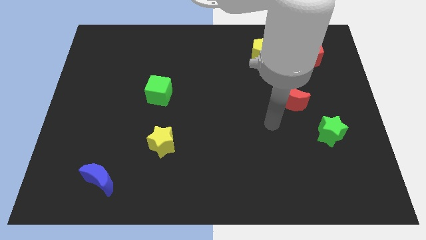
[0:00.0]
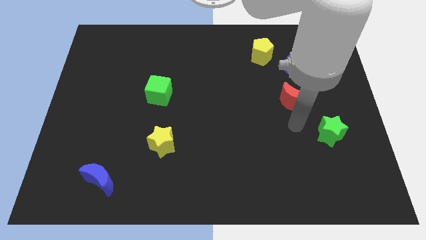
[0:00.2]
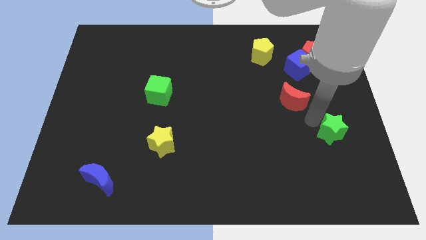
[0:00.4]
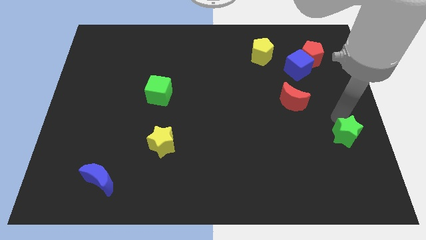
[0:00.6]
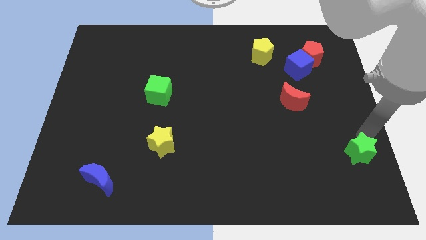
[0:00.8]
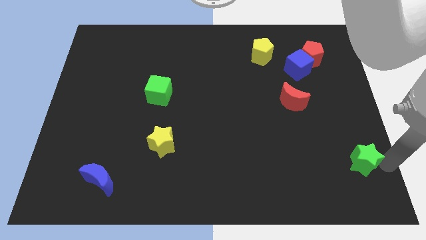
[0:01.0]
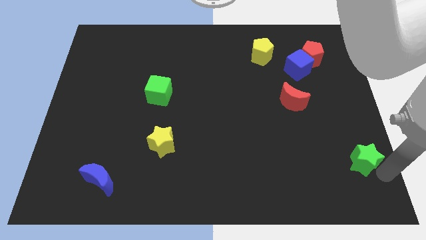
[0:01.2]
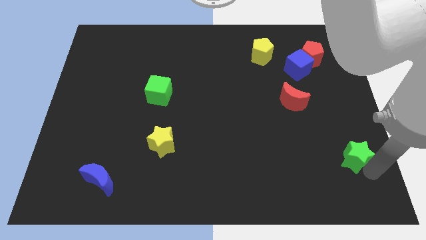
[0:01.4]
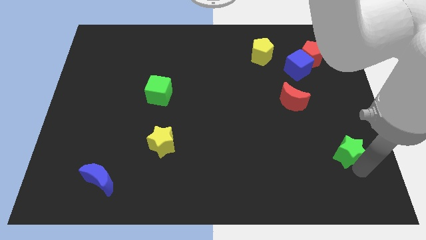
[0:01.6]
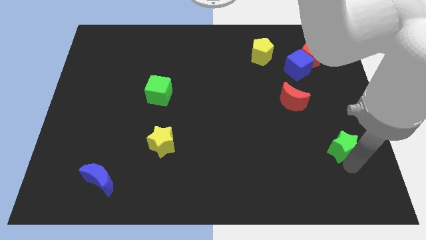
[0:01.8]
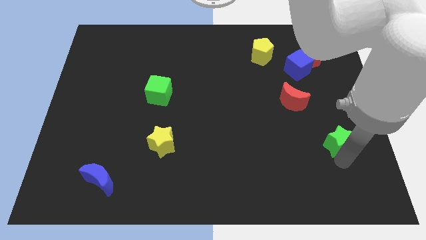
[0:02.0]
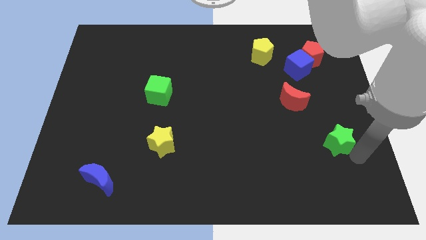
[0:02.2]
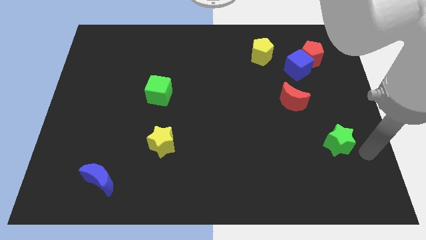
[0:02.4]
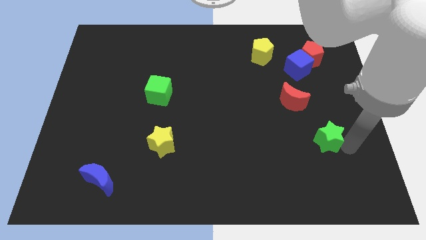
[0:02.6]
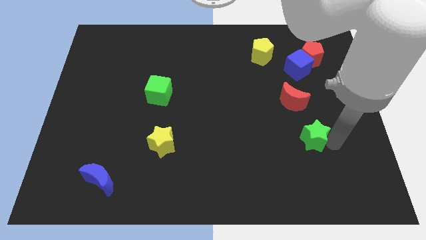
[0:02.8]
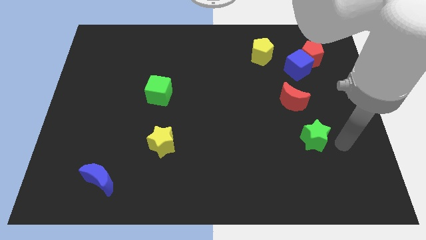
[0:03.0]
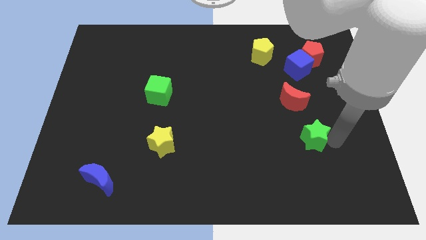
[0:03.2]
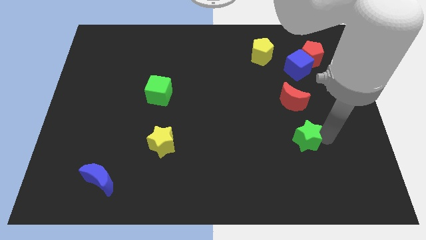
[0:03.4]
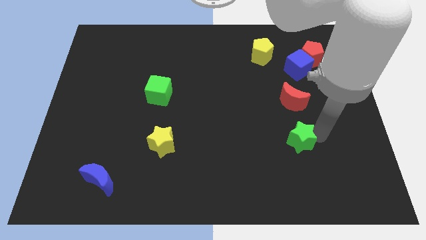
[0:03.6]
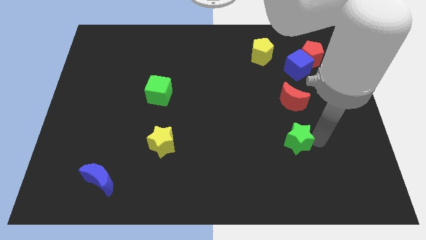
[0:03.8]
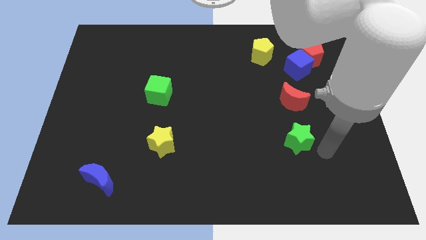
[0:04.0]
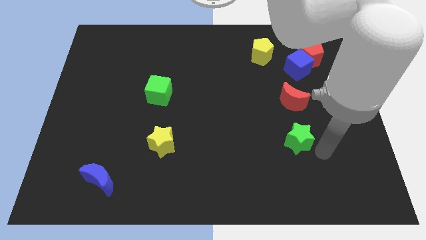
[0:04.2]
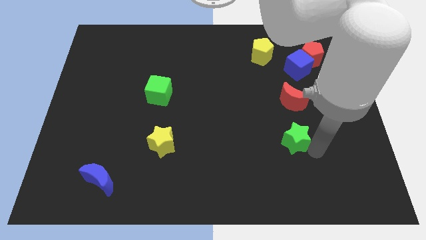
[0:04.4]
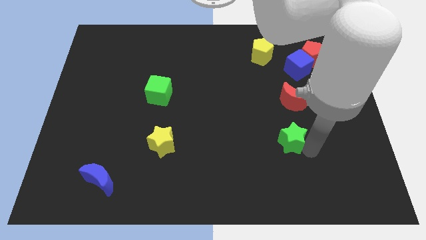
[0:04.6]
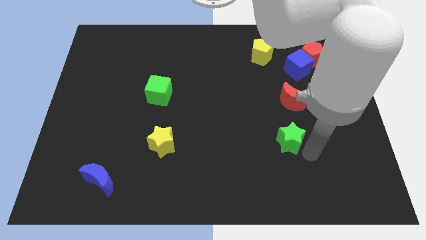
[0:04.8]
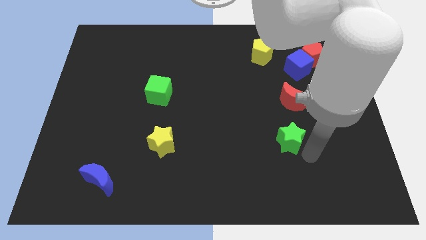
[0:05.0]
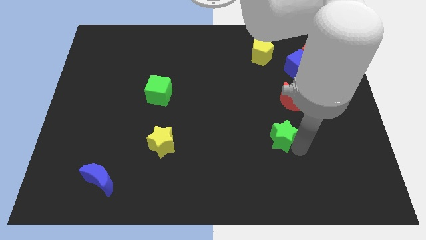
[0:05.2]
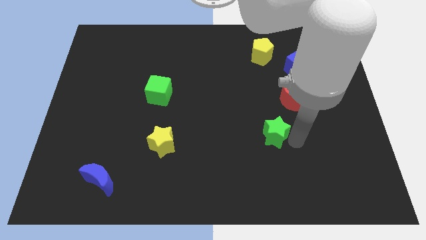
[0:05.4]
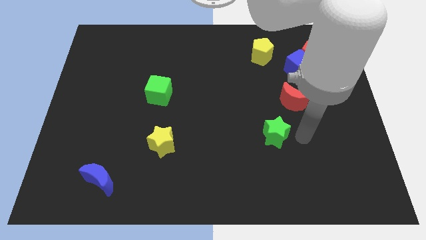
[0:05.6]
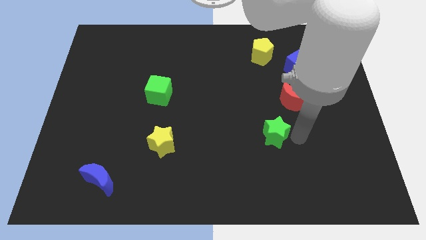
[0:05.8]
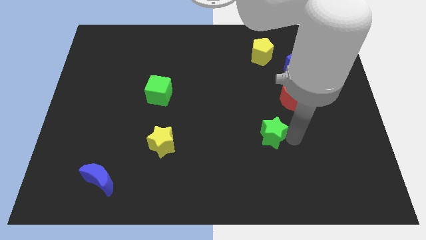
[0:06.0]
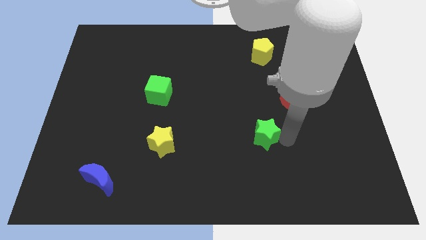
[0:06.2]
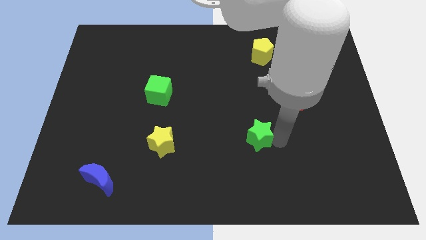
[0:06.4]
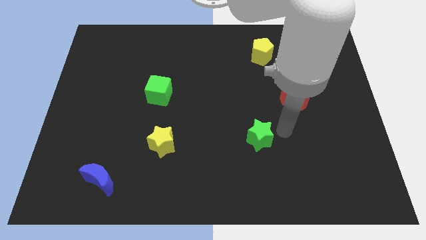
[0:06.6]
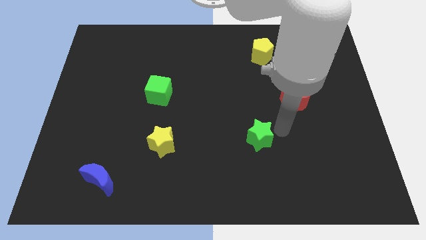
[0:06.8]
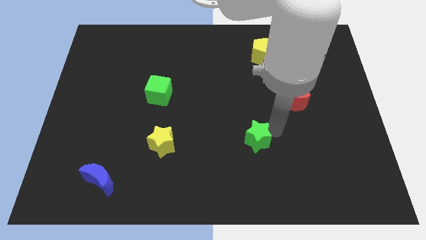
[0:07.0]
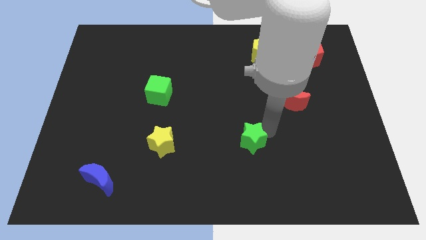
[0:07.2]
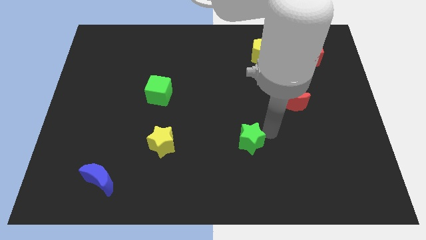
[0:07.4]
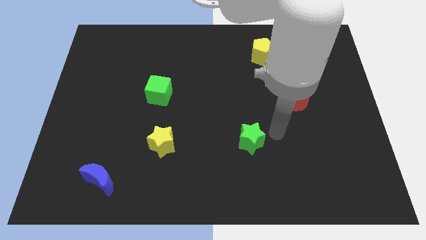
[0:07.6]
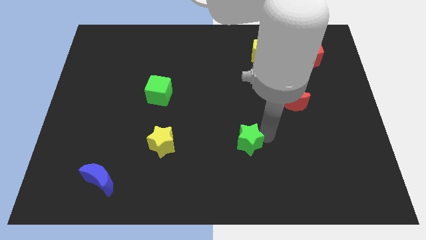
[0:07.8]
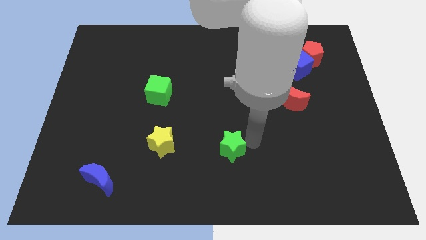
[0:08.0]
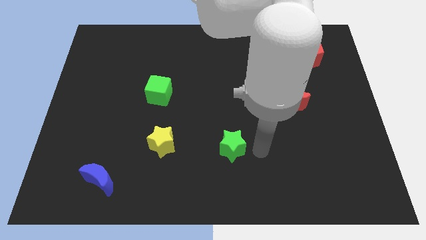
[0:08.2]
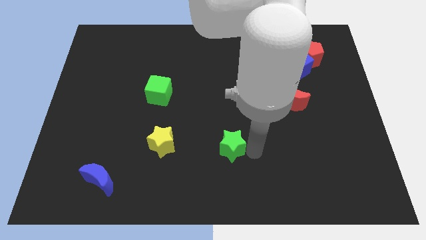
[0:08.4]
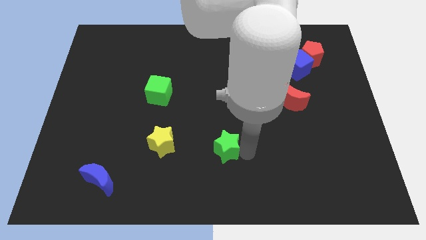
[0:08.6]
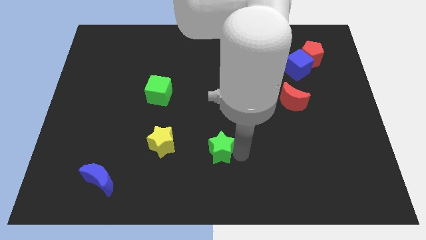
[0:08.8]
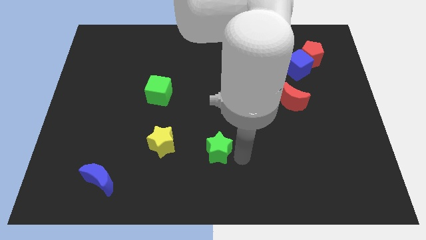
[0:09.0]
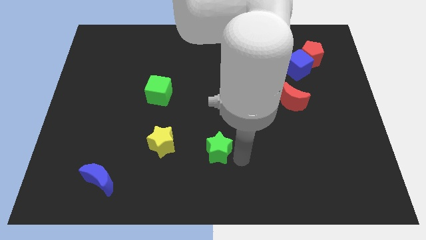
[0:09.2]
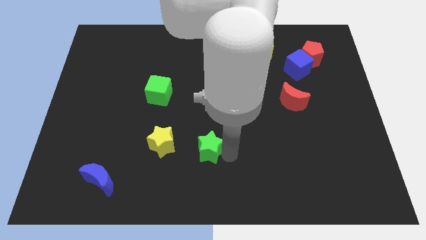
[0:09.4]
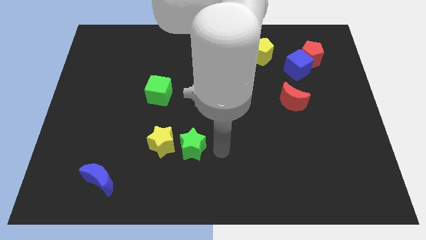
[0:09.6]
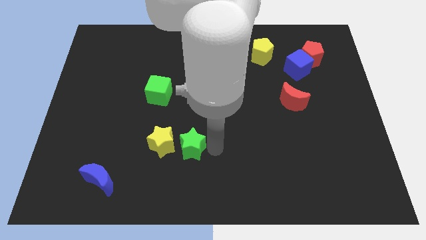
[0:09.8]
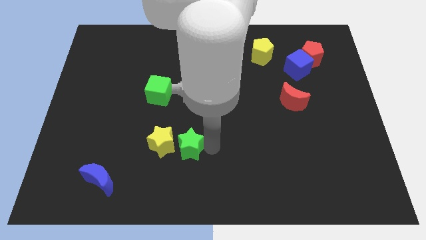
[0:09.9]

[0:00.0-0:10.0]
move the green star next to the yellow star

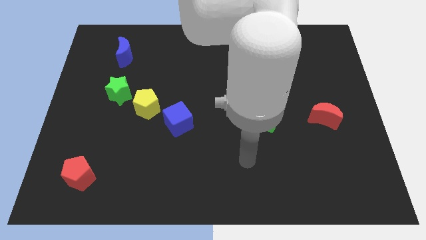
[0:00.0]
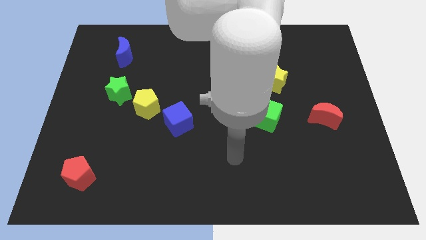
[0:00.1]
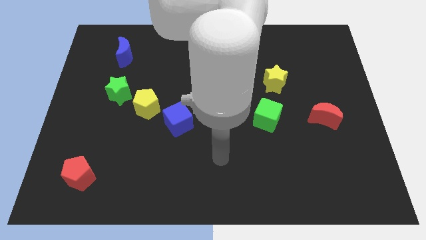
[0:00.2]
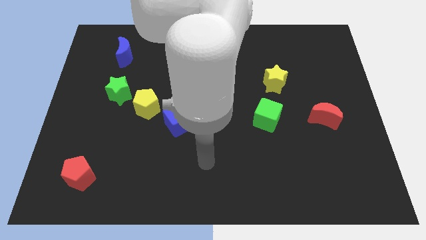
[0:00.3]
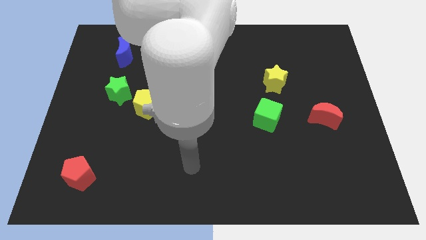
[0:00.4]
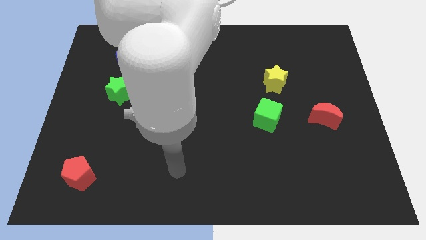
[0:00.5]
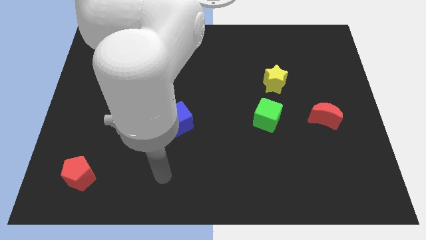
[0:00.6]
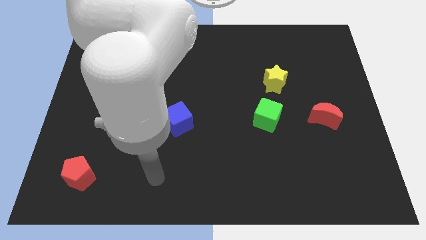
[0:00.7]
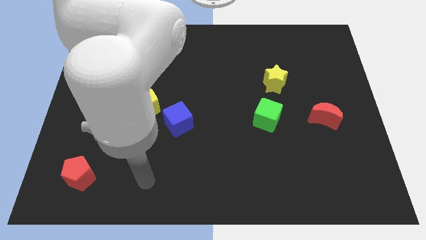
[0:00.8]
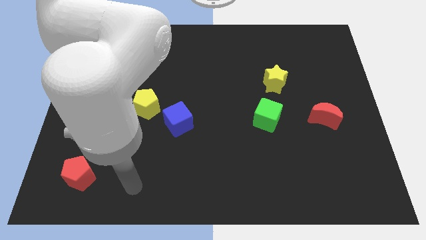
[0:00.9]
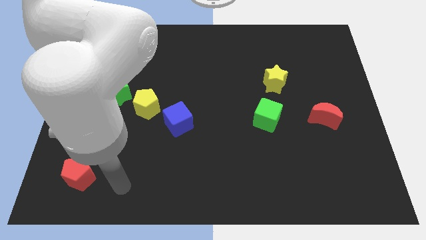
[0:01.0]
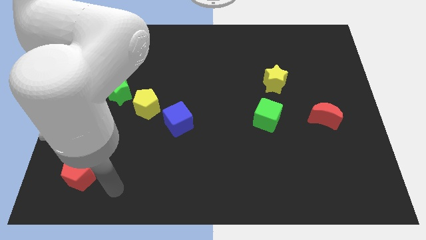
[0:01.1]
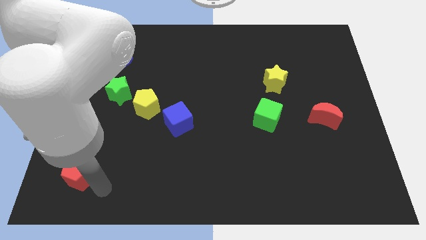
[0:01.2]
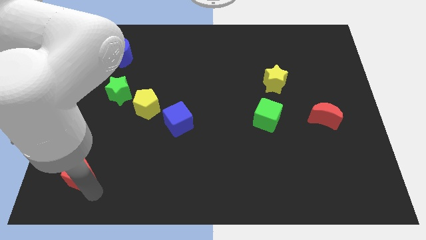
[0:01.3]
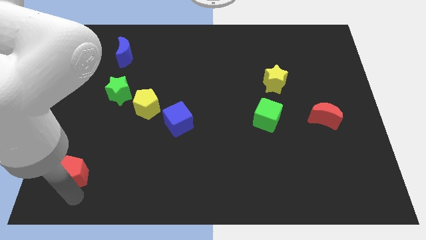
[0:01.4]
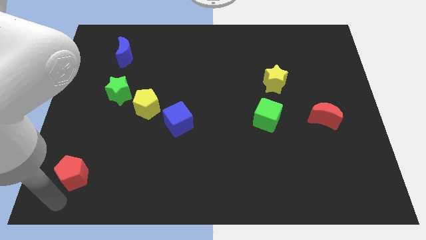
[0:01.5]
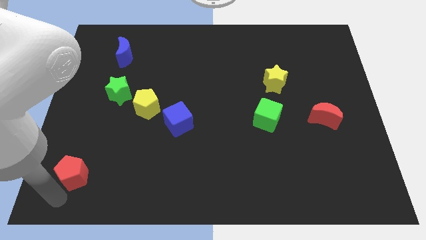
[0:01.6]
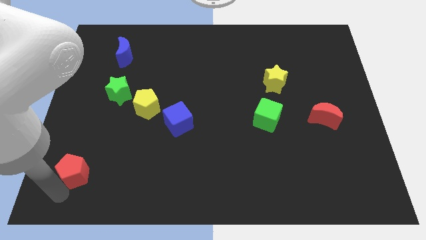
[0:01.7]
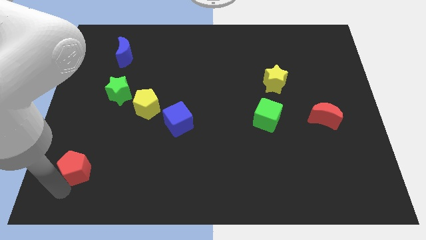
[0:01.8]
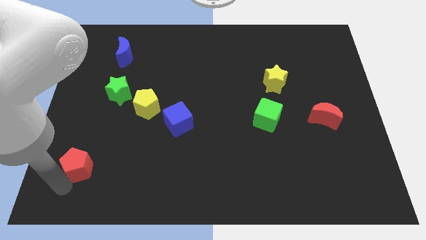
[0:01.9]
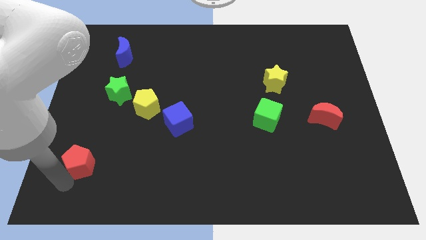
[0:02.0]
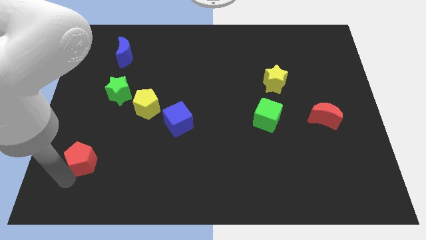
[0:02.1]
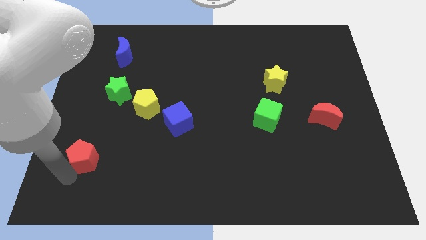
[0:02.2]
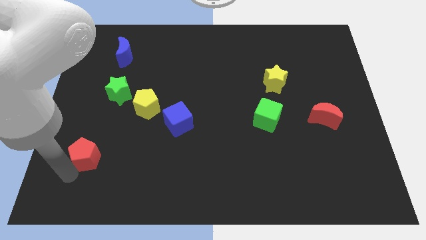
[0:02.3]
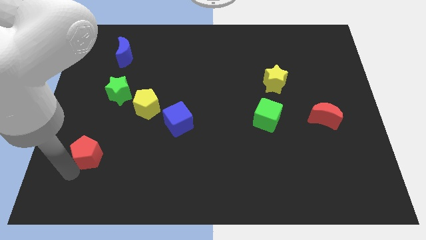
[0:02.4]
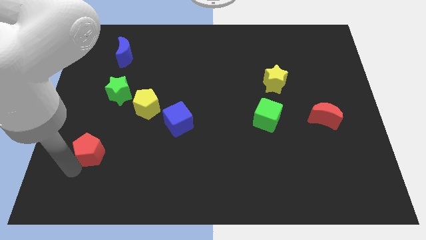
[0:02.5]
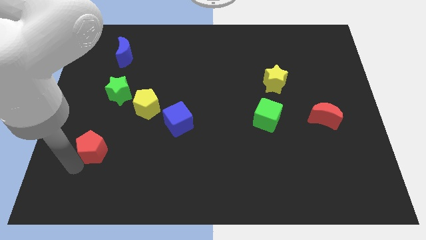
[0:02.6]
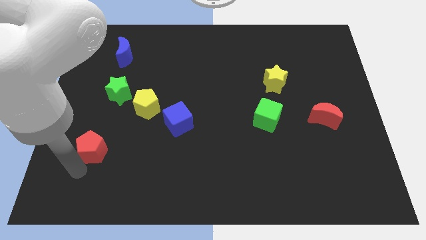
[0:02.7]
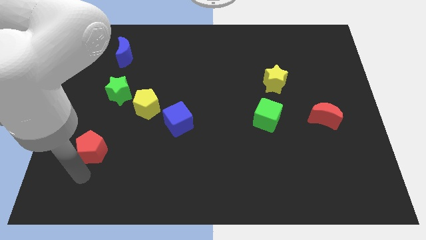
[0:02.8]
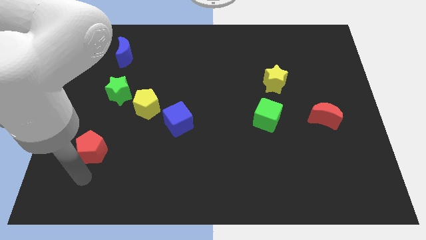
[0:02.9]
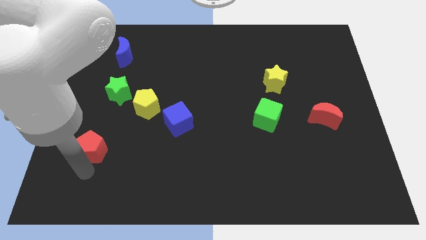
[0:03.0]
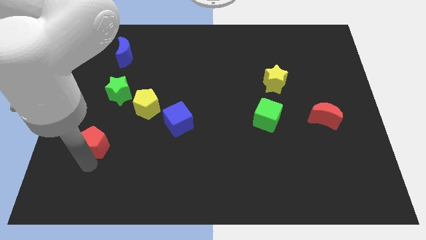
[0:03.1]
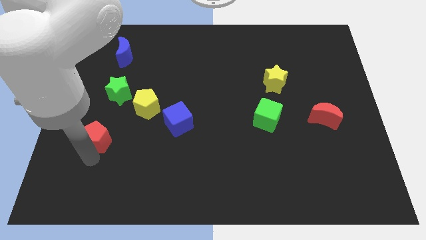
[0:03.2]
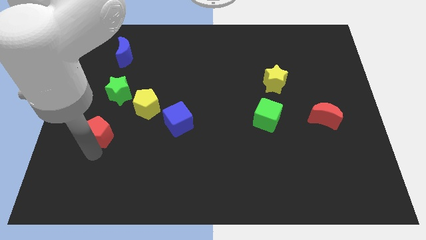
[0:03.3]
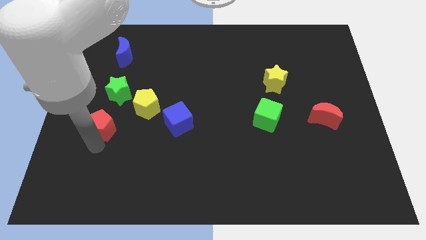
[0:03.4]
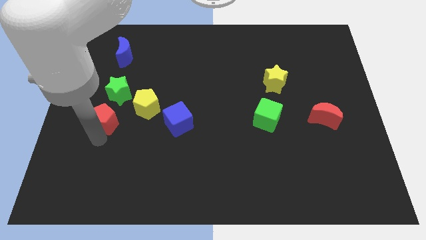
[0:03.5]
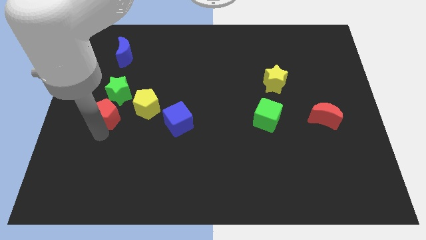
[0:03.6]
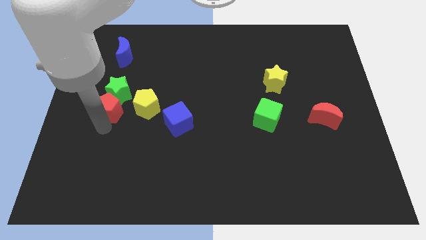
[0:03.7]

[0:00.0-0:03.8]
put the red pentagon towards the green star
